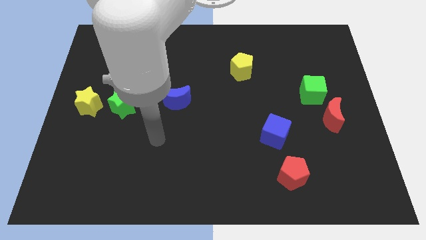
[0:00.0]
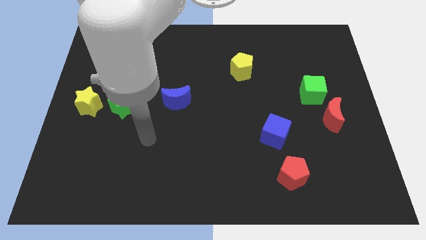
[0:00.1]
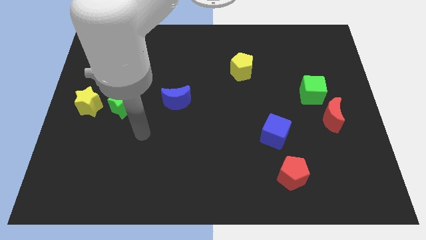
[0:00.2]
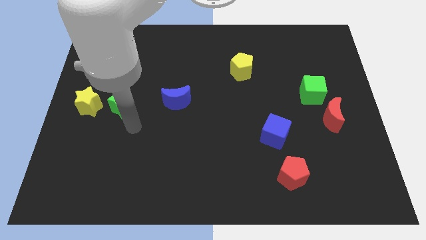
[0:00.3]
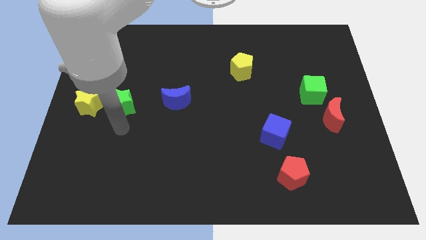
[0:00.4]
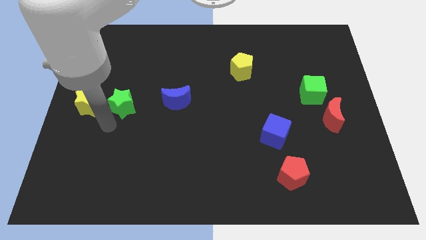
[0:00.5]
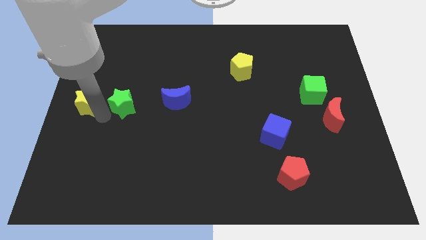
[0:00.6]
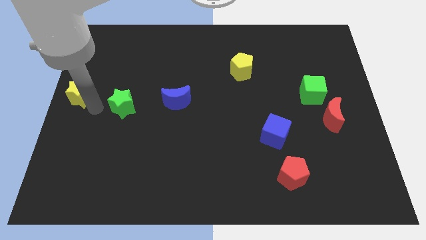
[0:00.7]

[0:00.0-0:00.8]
separate the green star from the yellow star

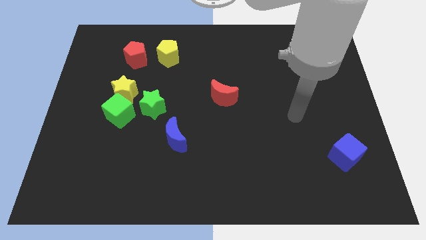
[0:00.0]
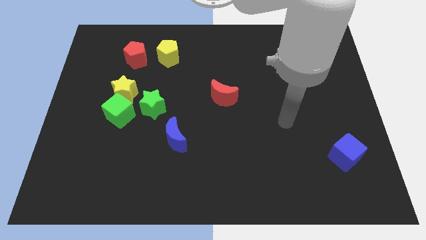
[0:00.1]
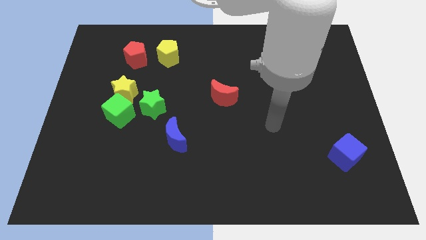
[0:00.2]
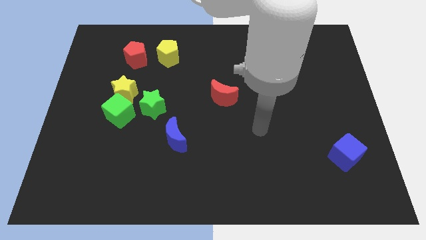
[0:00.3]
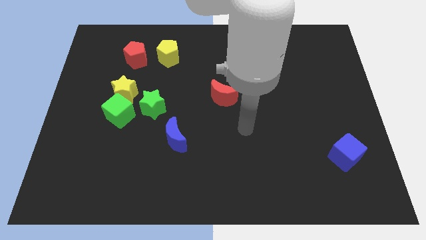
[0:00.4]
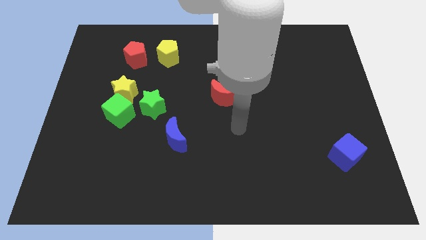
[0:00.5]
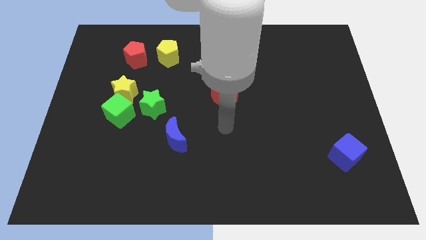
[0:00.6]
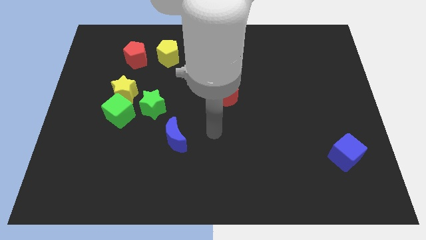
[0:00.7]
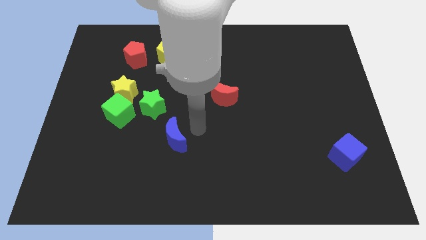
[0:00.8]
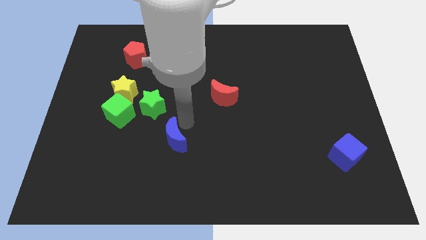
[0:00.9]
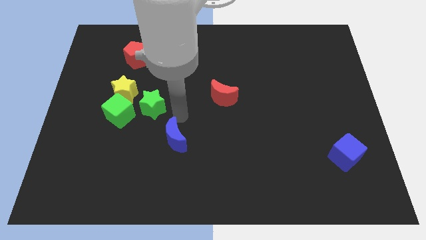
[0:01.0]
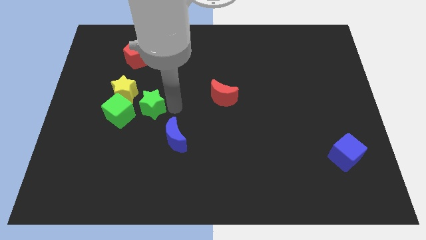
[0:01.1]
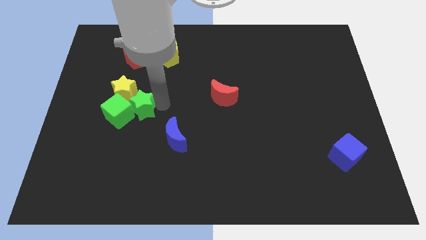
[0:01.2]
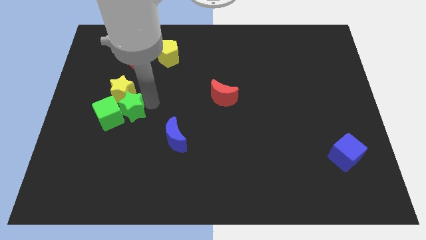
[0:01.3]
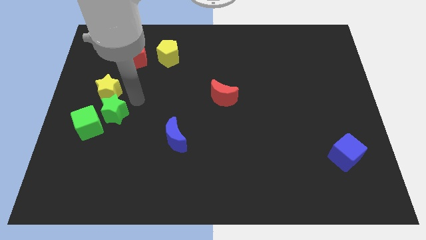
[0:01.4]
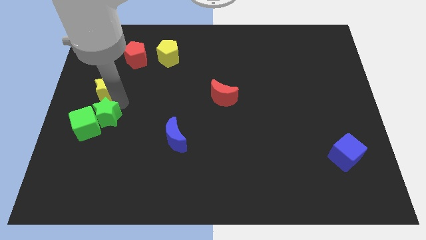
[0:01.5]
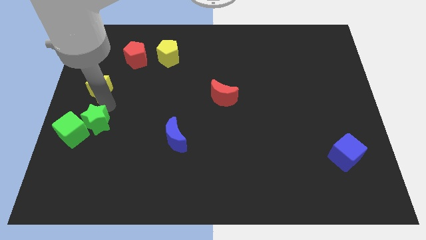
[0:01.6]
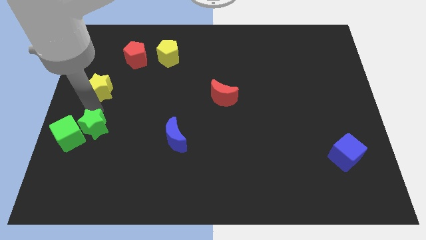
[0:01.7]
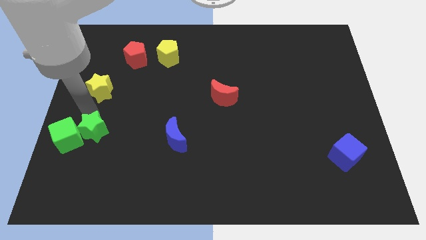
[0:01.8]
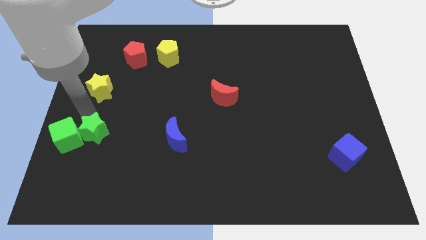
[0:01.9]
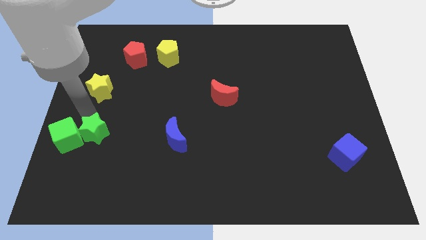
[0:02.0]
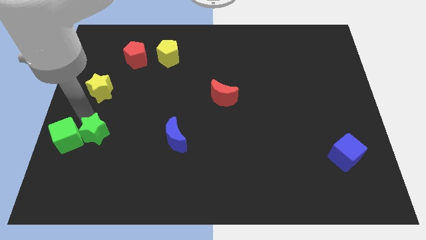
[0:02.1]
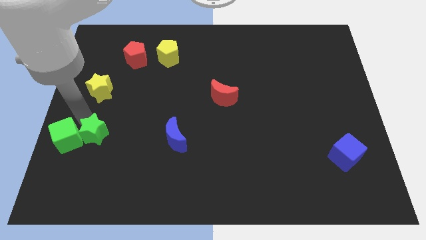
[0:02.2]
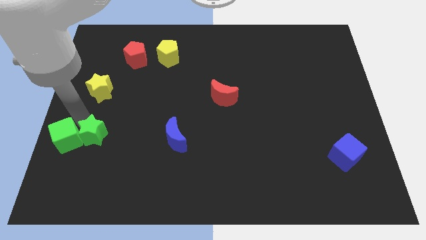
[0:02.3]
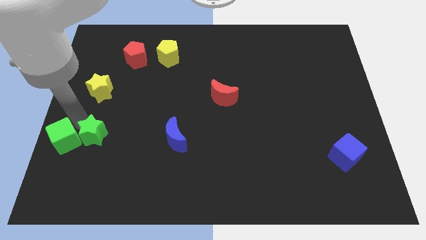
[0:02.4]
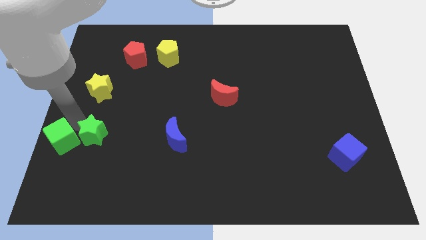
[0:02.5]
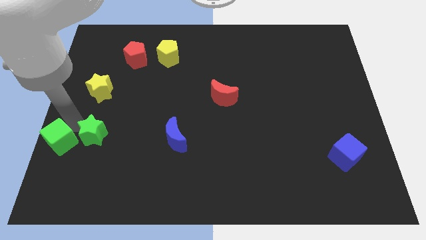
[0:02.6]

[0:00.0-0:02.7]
separate the green cube from the yellow star and green star

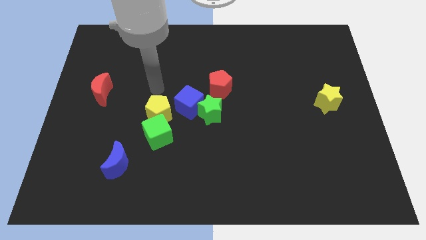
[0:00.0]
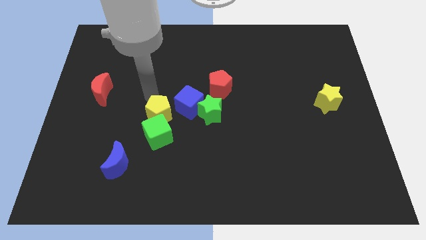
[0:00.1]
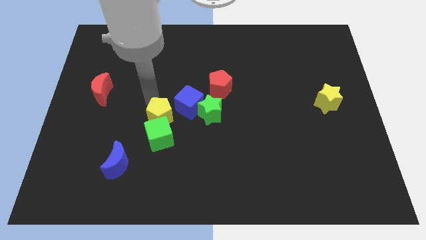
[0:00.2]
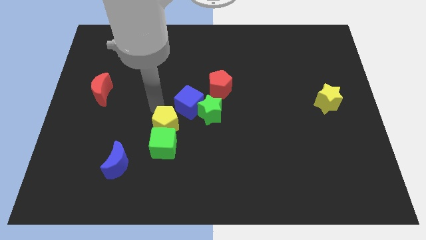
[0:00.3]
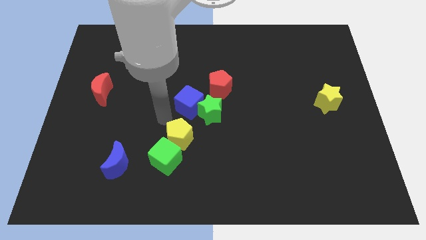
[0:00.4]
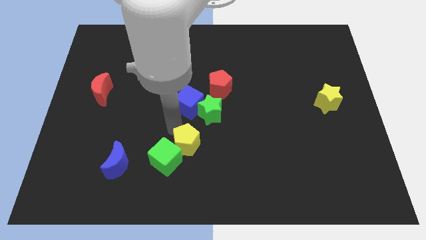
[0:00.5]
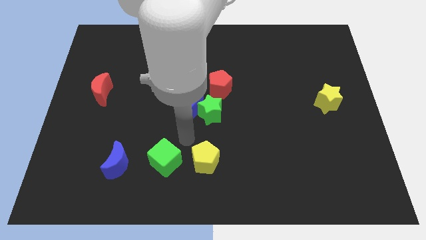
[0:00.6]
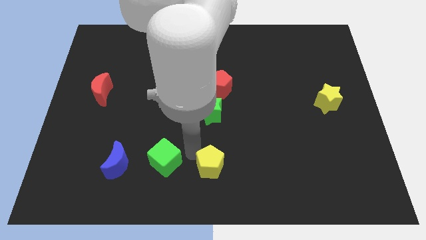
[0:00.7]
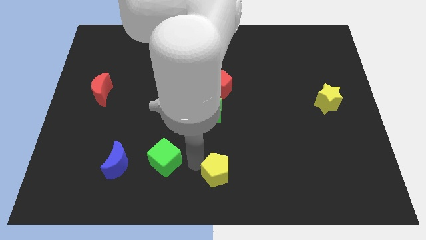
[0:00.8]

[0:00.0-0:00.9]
move the green cube away from the yellow pentagon

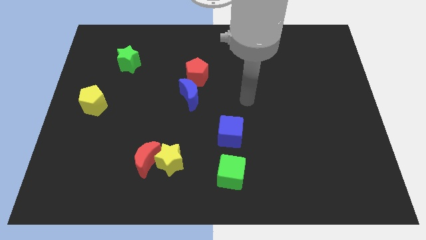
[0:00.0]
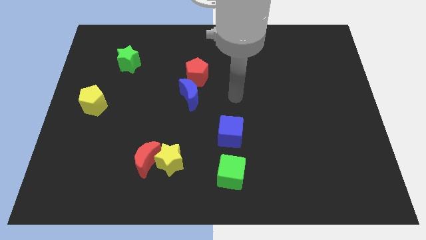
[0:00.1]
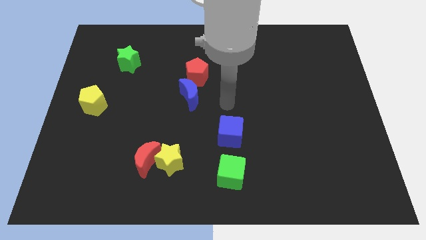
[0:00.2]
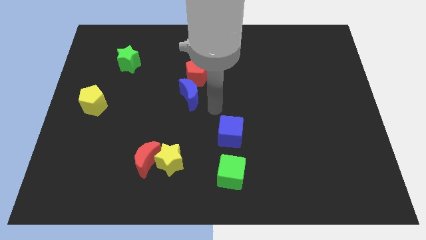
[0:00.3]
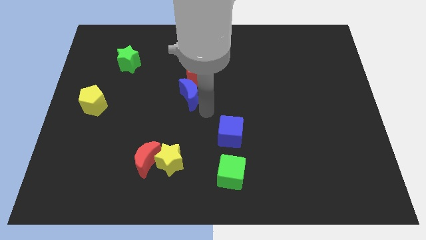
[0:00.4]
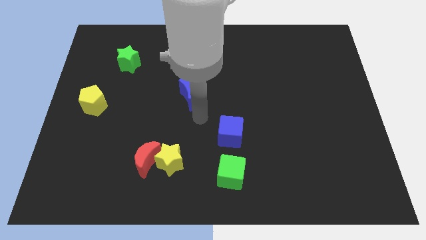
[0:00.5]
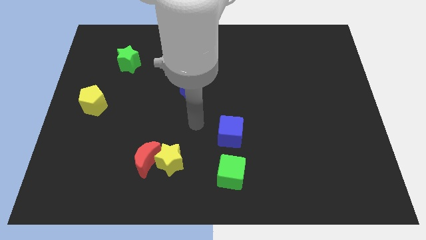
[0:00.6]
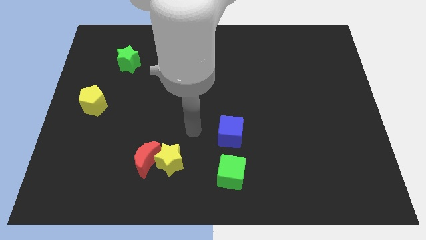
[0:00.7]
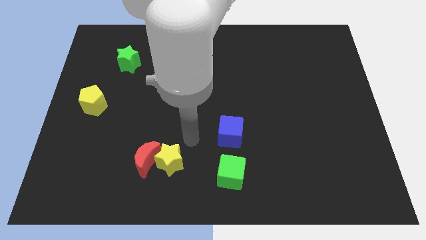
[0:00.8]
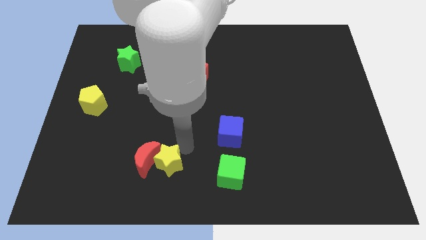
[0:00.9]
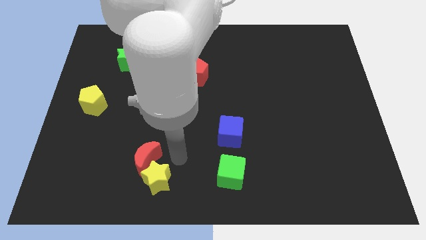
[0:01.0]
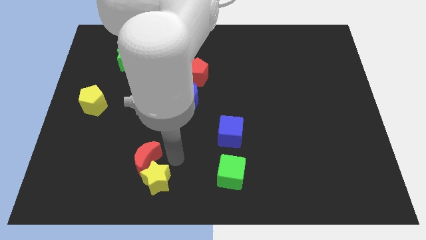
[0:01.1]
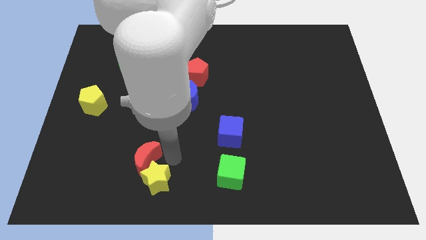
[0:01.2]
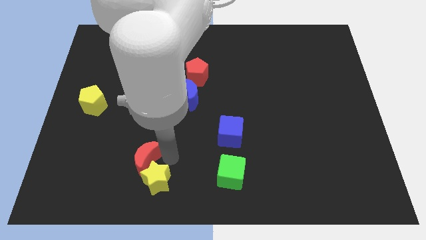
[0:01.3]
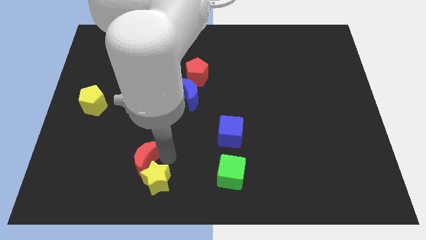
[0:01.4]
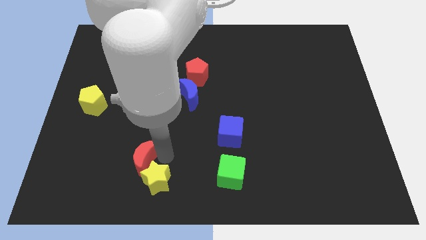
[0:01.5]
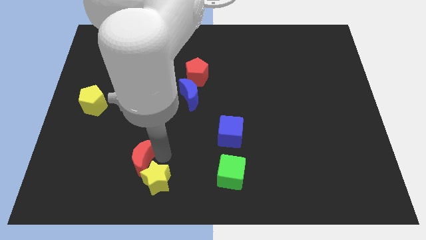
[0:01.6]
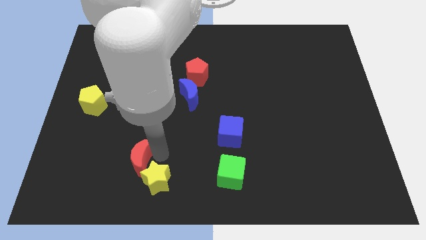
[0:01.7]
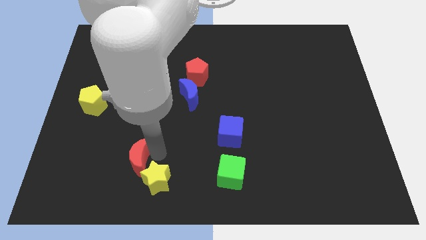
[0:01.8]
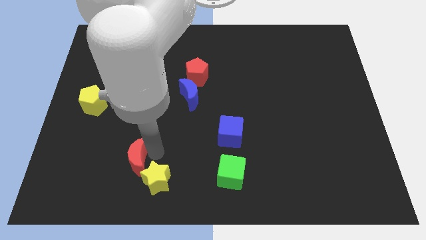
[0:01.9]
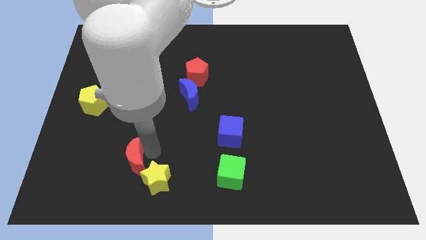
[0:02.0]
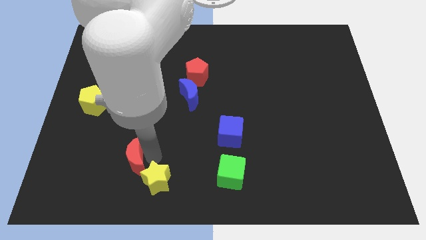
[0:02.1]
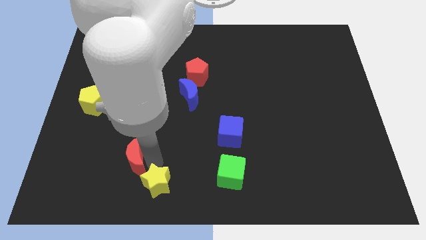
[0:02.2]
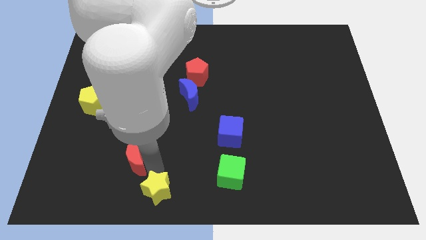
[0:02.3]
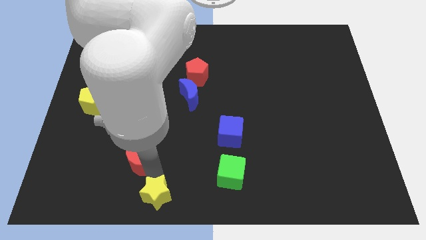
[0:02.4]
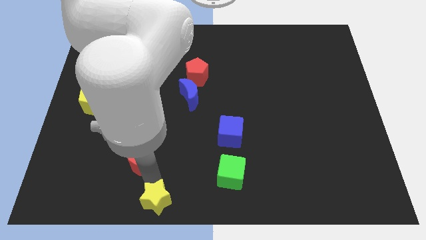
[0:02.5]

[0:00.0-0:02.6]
move the red moon away from the yellow star

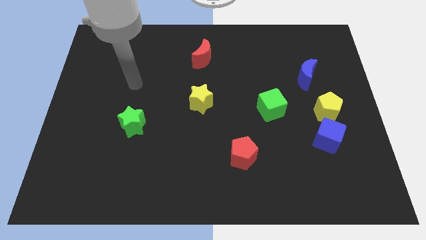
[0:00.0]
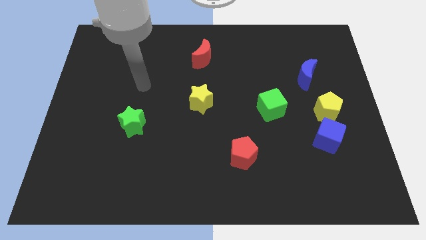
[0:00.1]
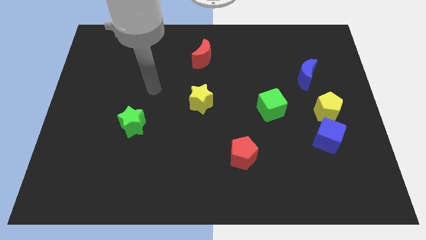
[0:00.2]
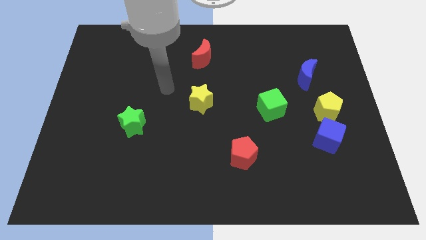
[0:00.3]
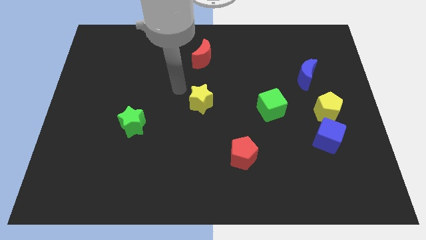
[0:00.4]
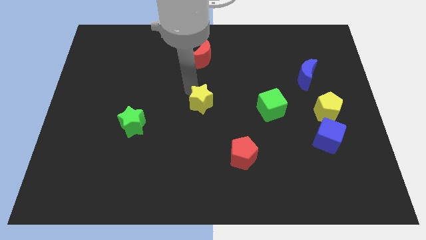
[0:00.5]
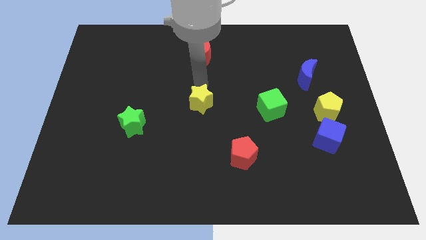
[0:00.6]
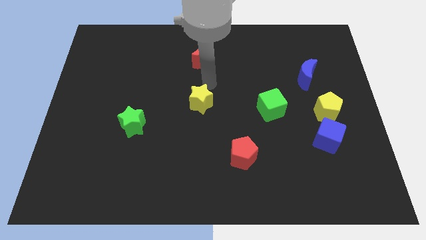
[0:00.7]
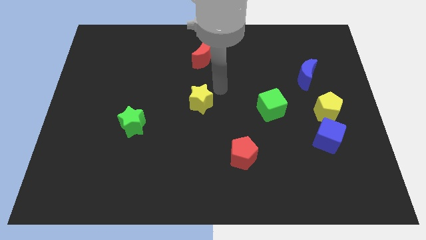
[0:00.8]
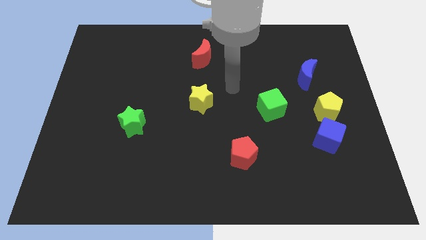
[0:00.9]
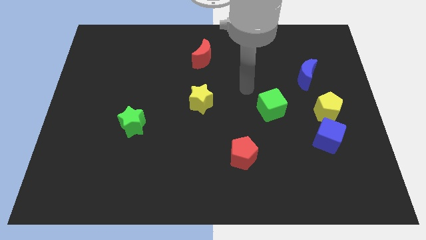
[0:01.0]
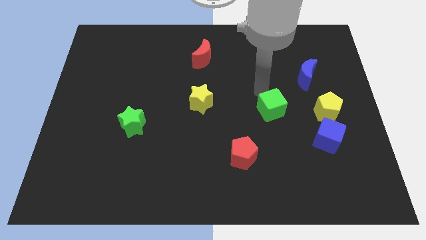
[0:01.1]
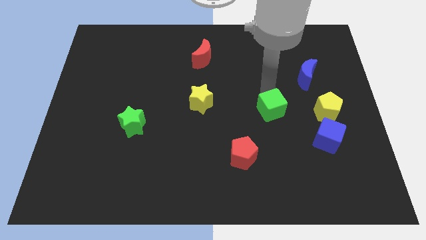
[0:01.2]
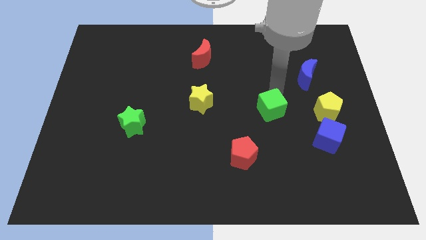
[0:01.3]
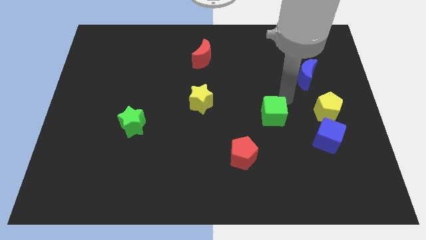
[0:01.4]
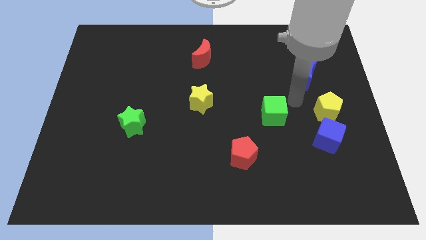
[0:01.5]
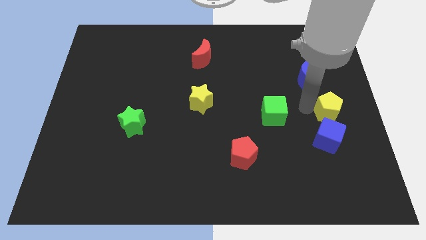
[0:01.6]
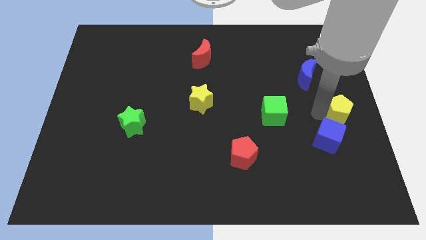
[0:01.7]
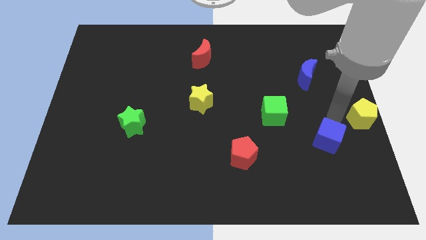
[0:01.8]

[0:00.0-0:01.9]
separate the blue cube from the yellow pentagon

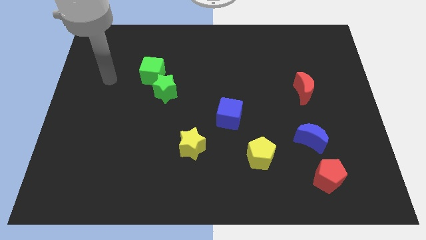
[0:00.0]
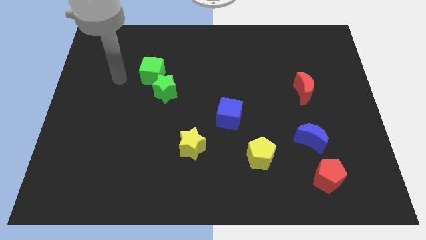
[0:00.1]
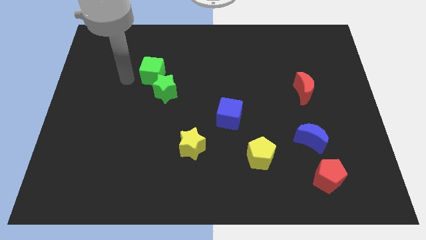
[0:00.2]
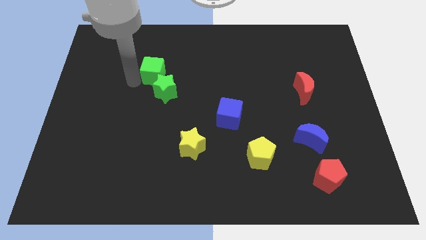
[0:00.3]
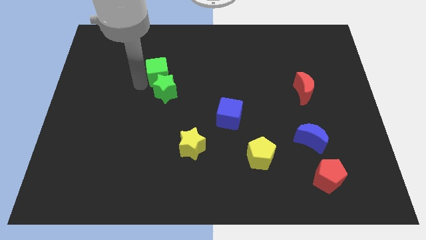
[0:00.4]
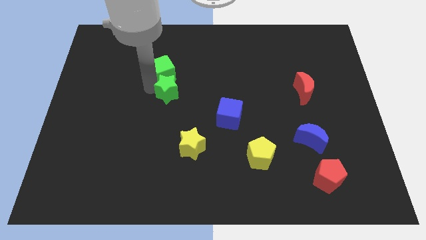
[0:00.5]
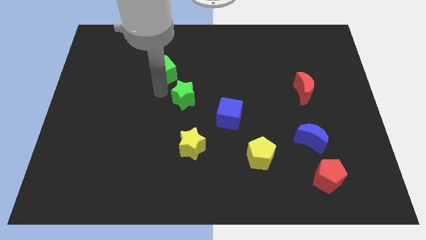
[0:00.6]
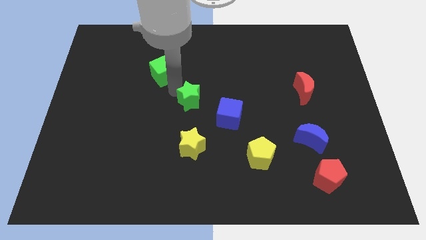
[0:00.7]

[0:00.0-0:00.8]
separate the green cube from the green star
